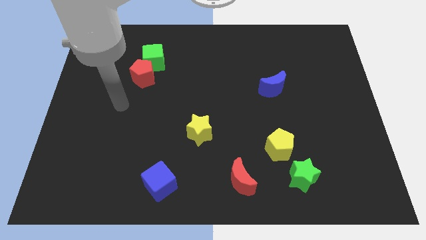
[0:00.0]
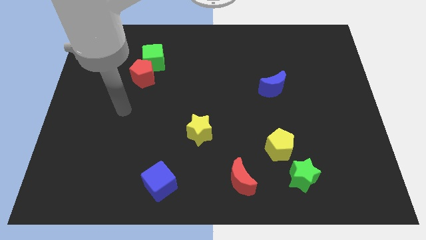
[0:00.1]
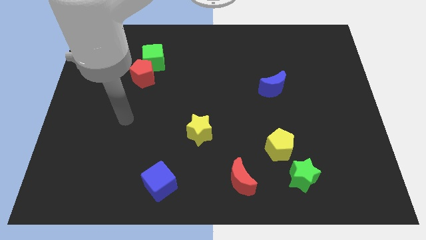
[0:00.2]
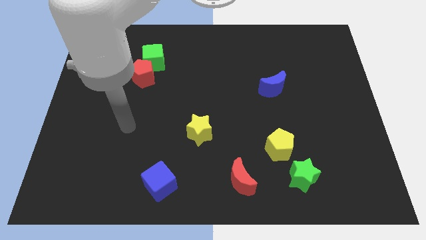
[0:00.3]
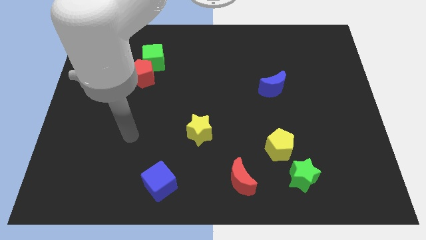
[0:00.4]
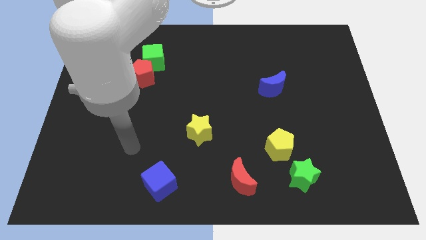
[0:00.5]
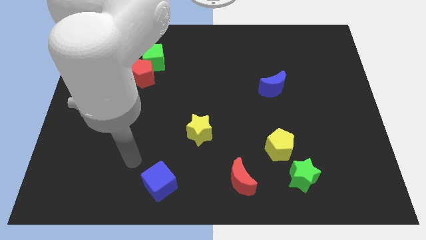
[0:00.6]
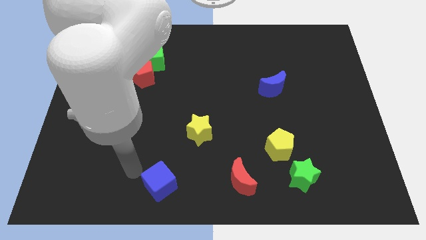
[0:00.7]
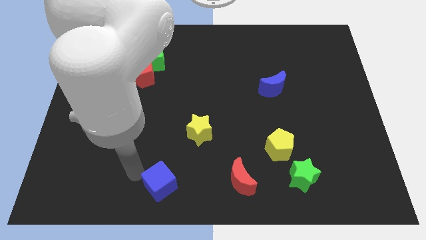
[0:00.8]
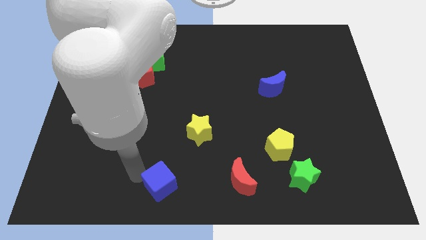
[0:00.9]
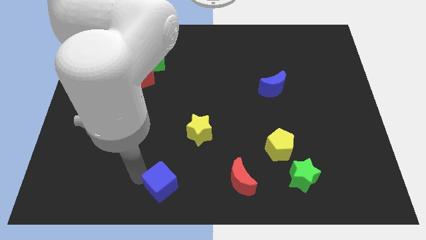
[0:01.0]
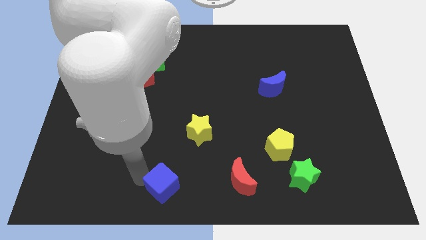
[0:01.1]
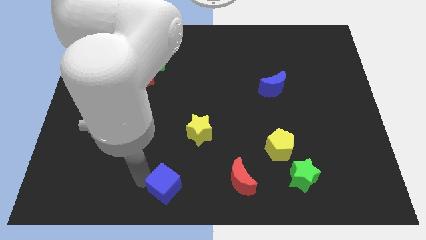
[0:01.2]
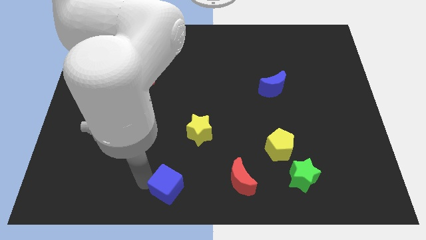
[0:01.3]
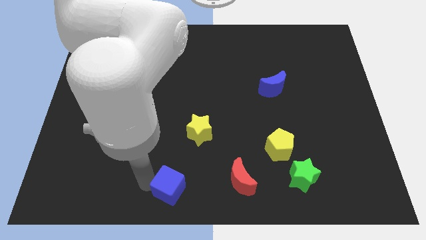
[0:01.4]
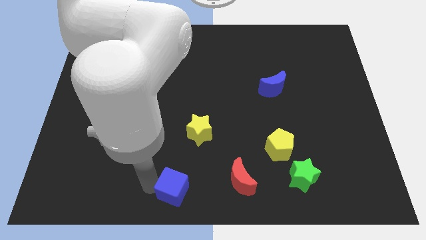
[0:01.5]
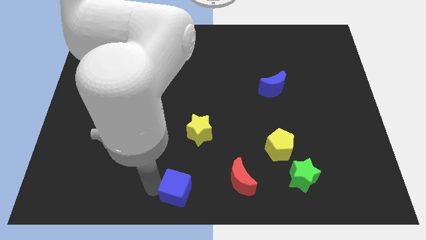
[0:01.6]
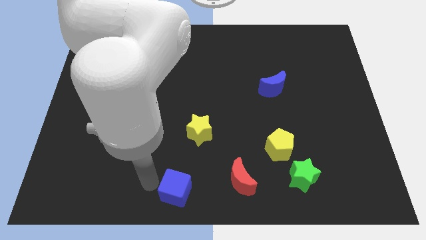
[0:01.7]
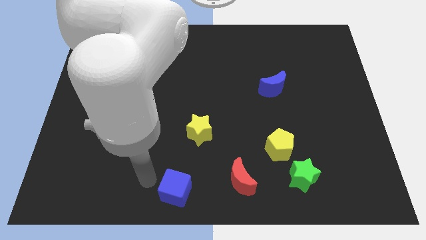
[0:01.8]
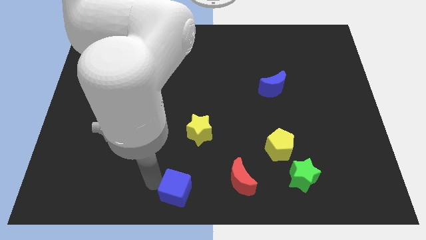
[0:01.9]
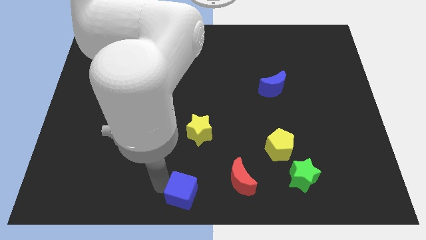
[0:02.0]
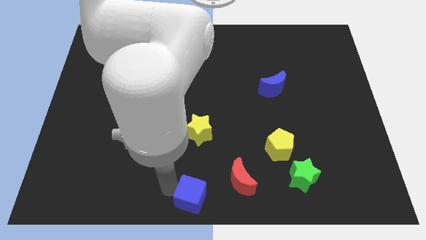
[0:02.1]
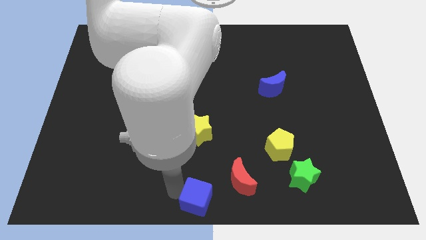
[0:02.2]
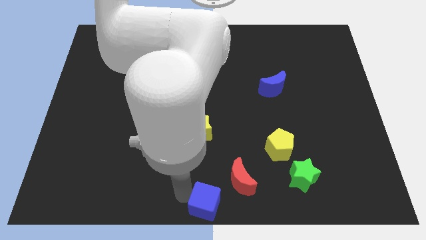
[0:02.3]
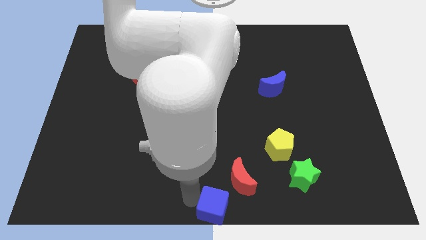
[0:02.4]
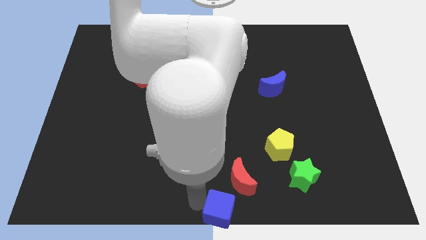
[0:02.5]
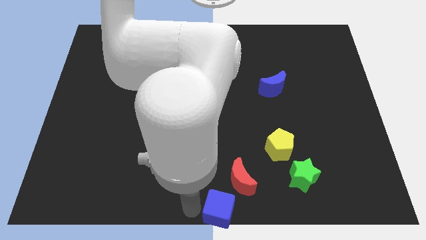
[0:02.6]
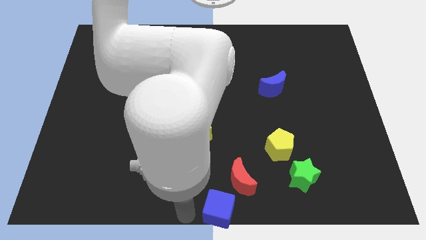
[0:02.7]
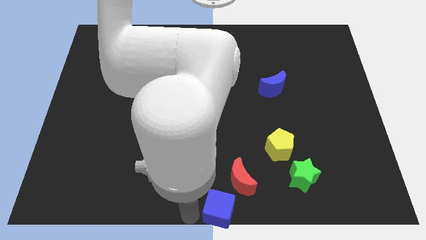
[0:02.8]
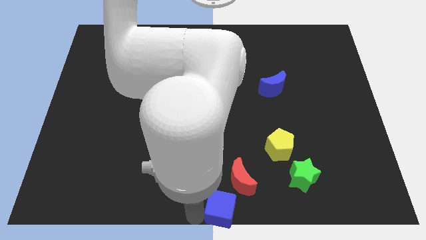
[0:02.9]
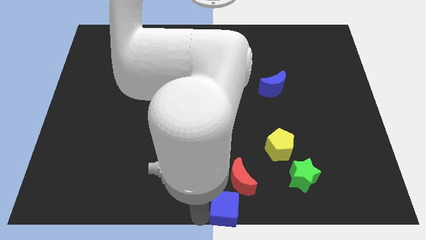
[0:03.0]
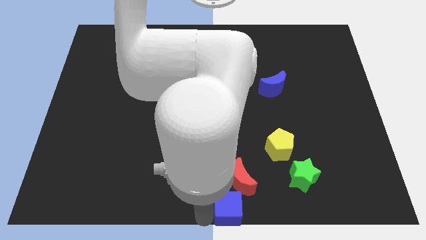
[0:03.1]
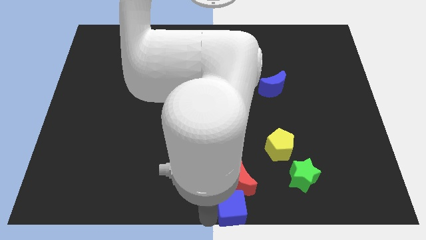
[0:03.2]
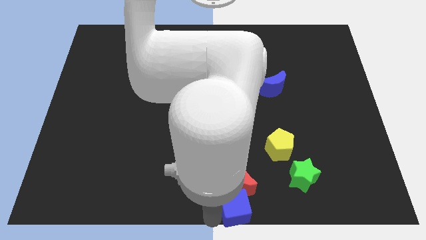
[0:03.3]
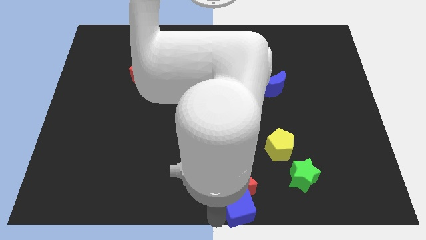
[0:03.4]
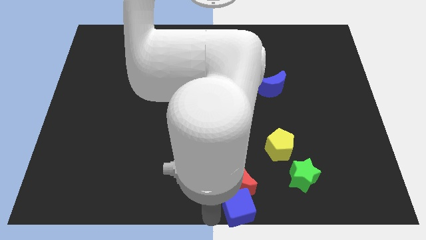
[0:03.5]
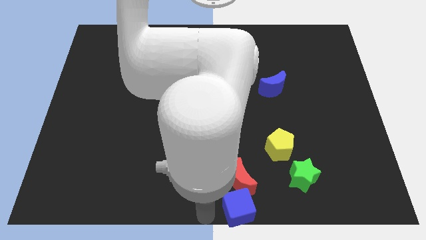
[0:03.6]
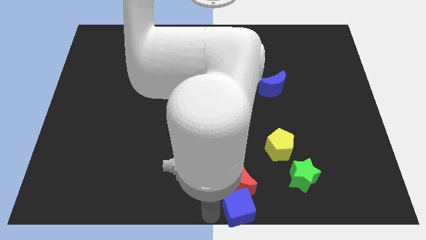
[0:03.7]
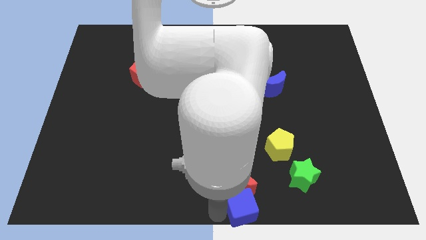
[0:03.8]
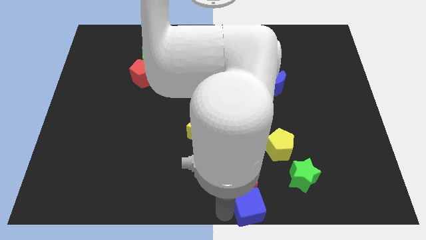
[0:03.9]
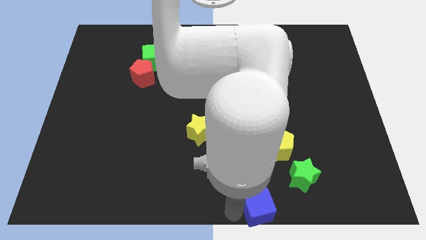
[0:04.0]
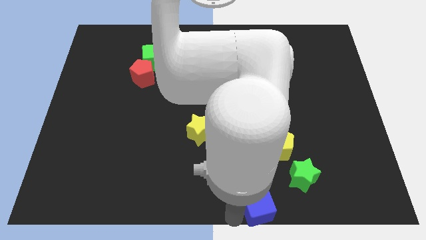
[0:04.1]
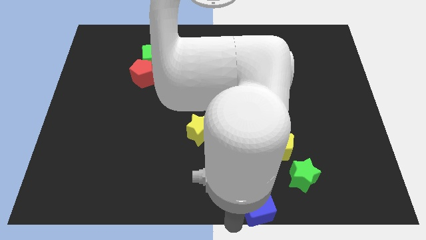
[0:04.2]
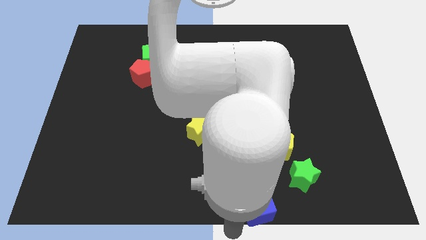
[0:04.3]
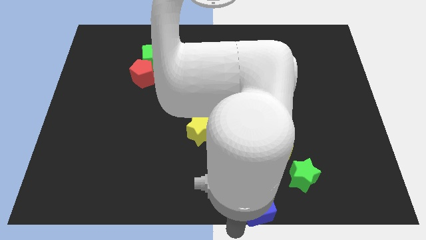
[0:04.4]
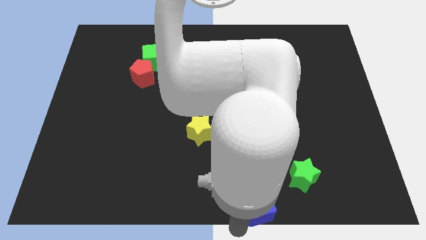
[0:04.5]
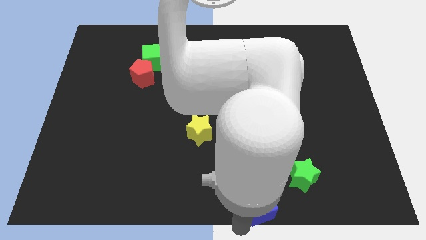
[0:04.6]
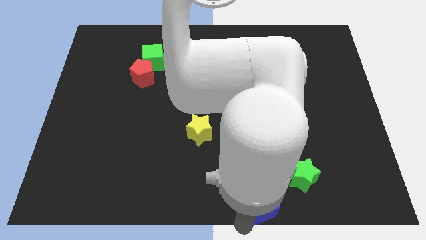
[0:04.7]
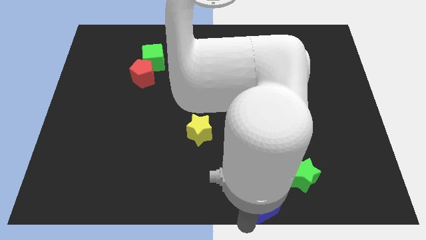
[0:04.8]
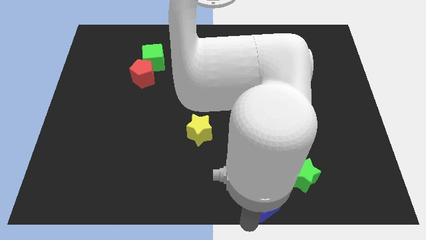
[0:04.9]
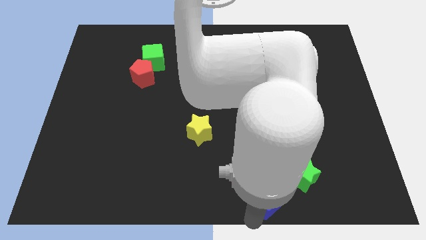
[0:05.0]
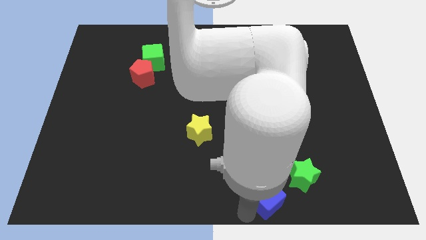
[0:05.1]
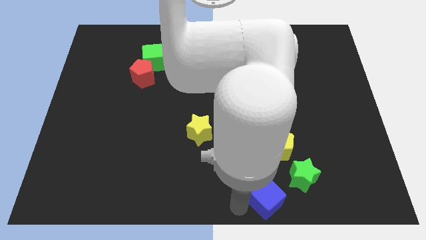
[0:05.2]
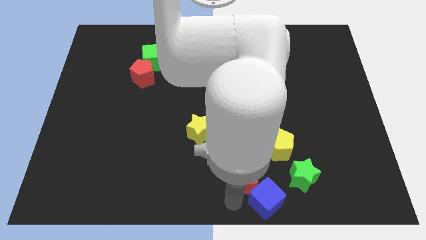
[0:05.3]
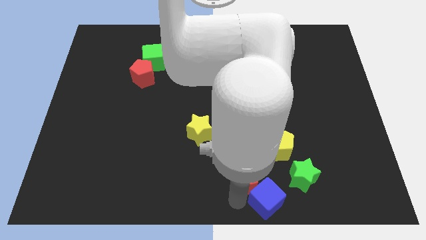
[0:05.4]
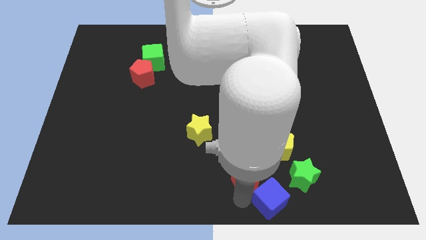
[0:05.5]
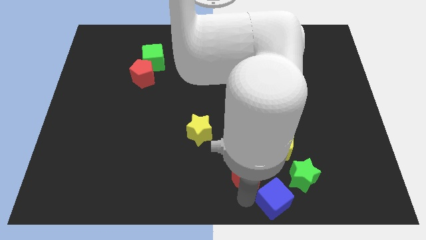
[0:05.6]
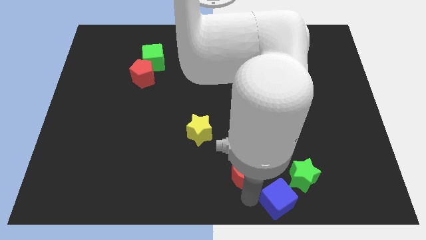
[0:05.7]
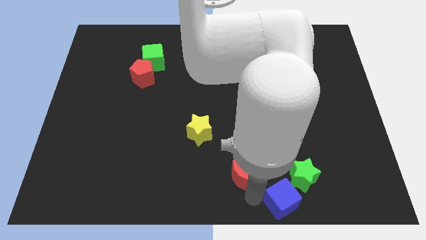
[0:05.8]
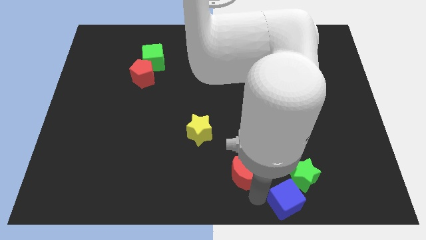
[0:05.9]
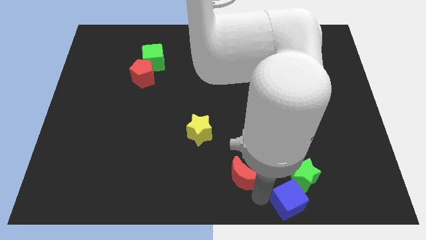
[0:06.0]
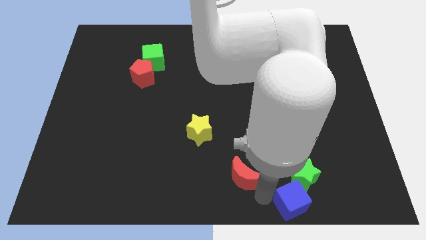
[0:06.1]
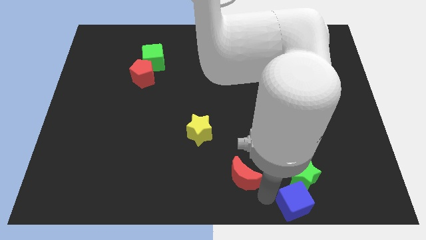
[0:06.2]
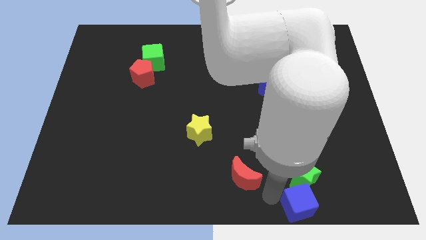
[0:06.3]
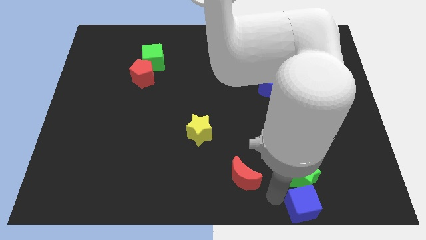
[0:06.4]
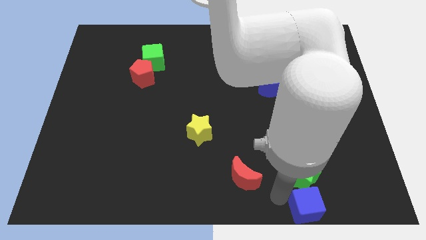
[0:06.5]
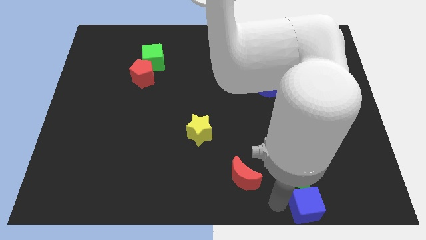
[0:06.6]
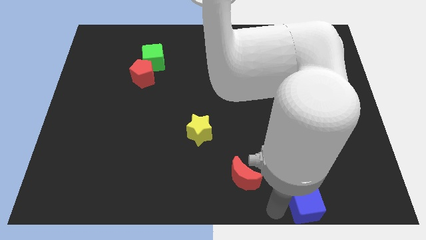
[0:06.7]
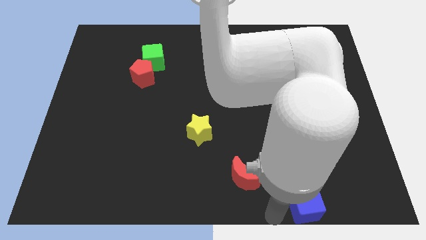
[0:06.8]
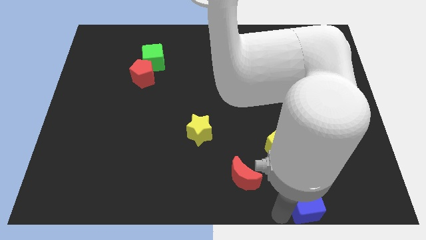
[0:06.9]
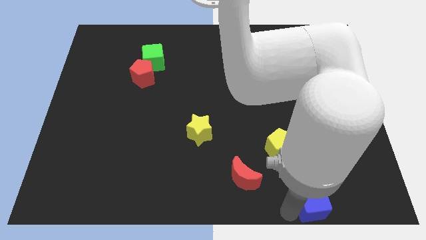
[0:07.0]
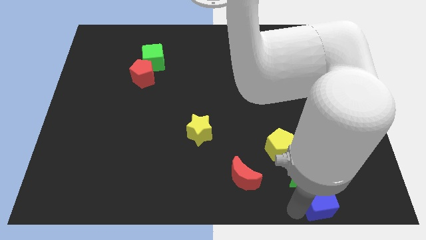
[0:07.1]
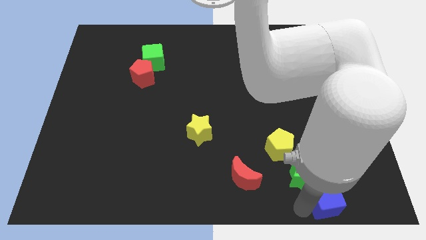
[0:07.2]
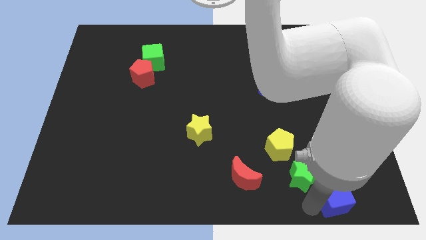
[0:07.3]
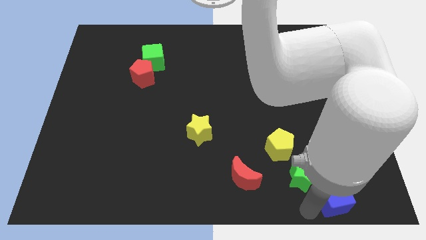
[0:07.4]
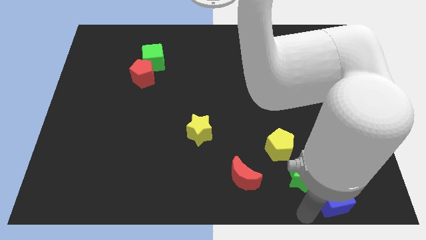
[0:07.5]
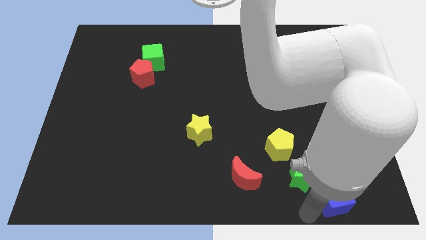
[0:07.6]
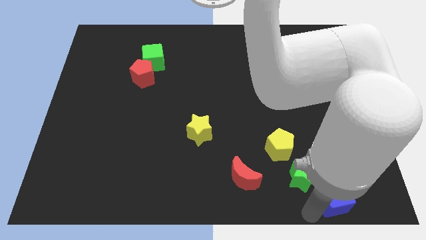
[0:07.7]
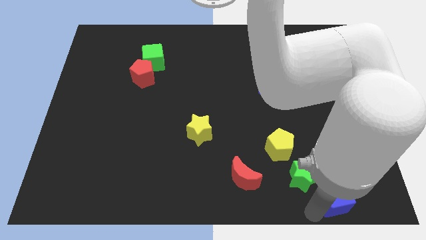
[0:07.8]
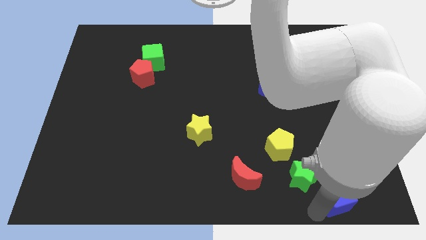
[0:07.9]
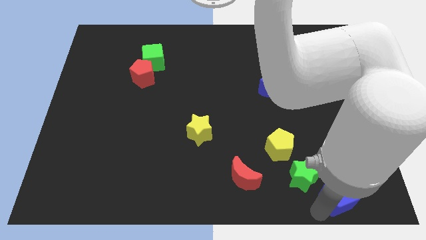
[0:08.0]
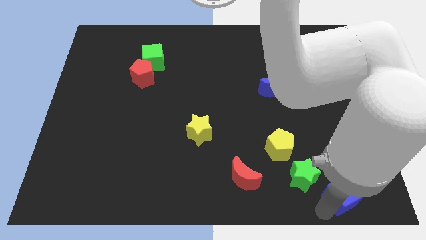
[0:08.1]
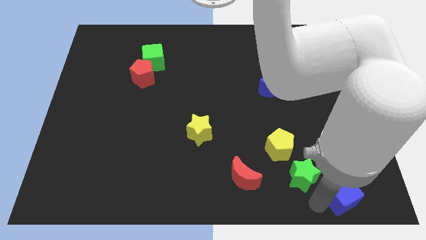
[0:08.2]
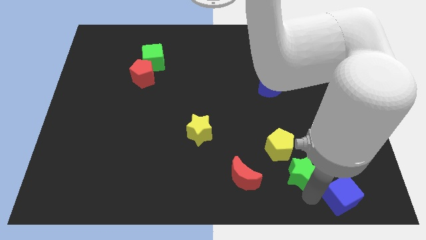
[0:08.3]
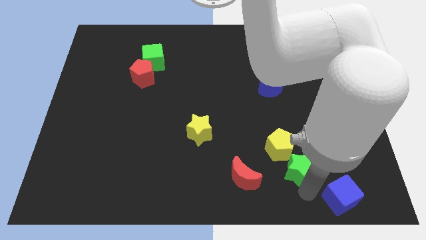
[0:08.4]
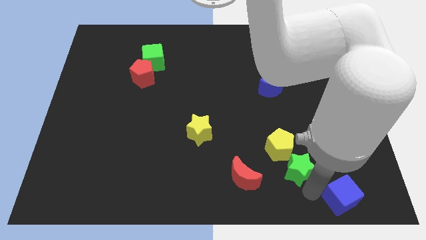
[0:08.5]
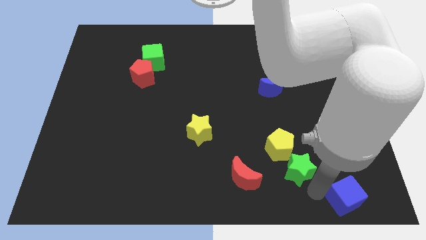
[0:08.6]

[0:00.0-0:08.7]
put the blue cube to the bottom right corner
